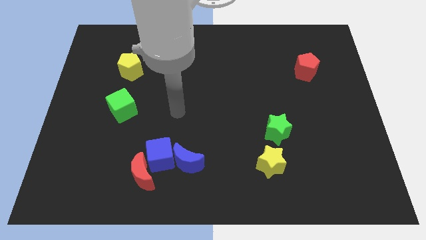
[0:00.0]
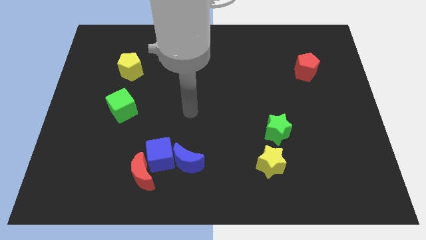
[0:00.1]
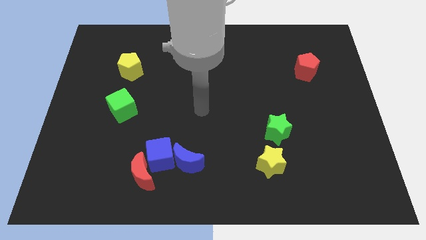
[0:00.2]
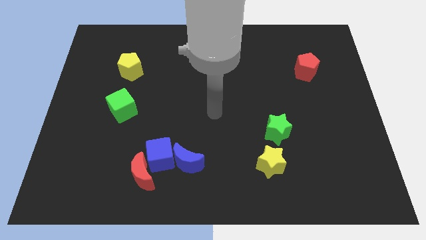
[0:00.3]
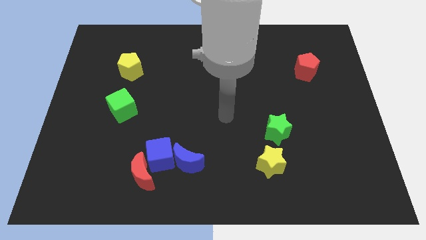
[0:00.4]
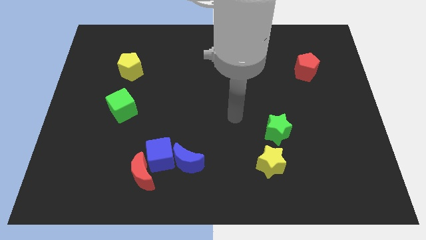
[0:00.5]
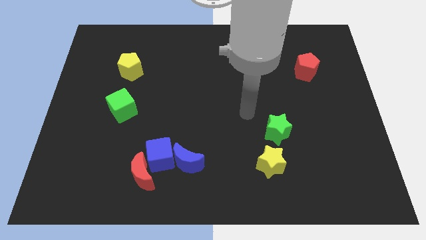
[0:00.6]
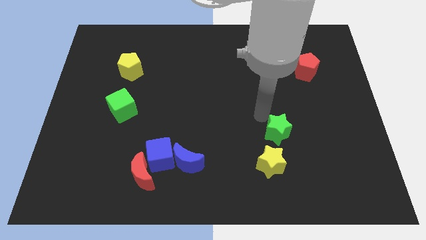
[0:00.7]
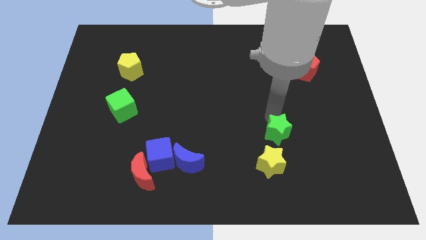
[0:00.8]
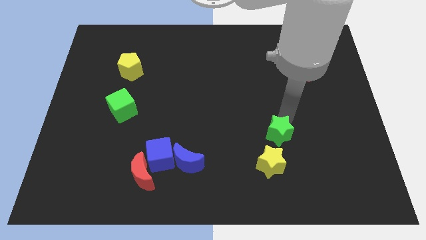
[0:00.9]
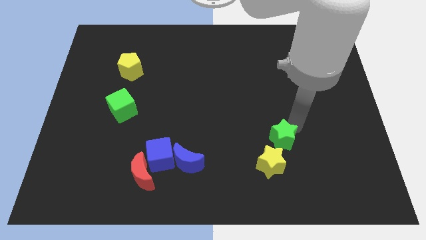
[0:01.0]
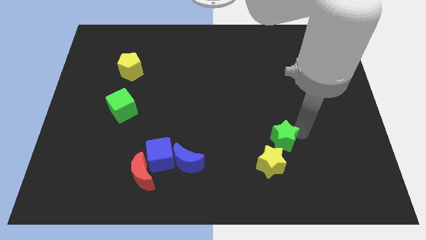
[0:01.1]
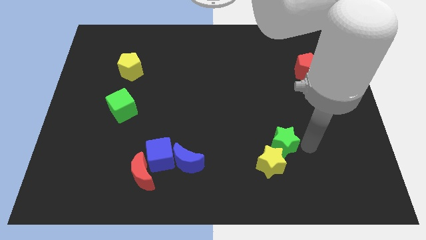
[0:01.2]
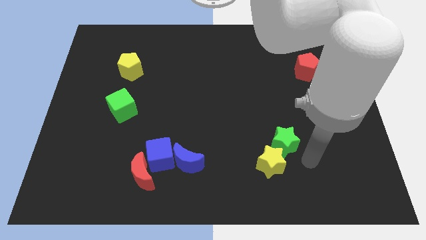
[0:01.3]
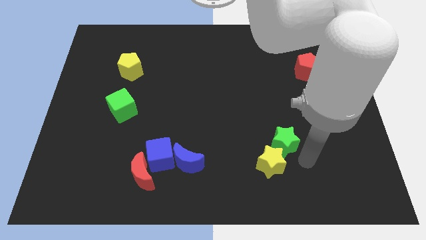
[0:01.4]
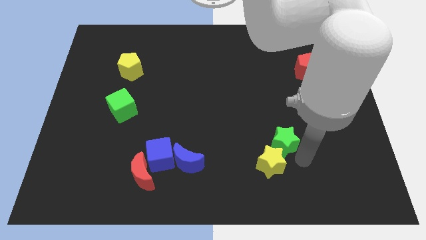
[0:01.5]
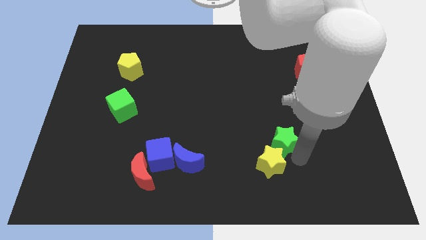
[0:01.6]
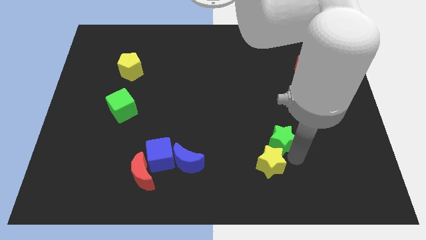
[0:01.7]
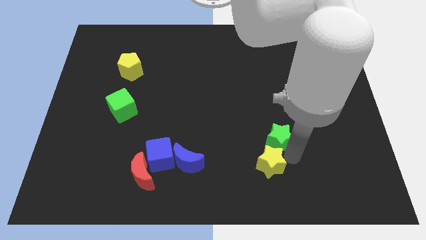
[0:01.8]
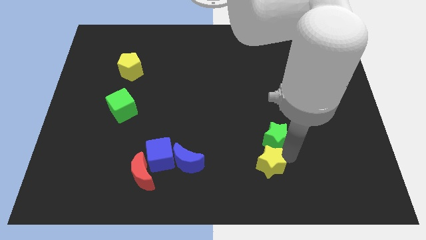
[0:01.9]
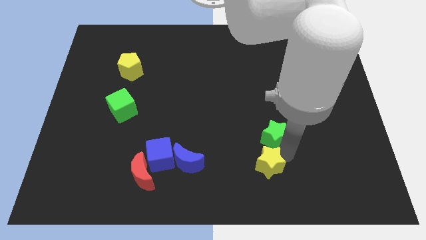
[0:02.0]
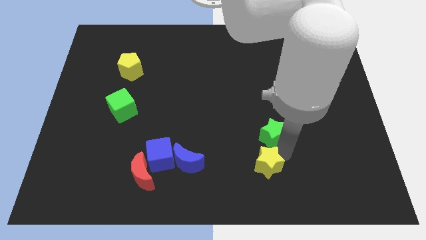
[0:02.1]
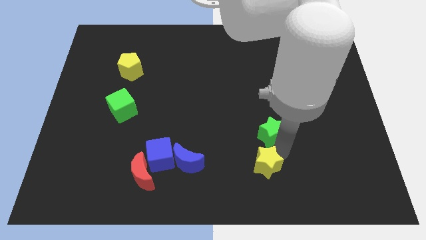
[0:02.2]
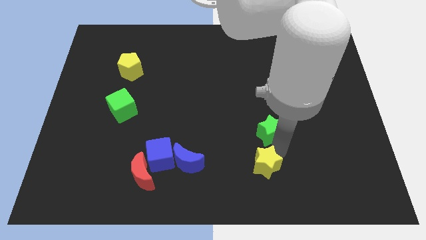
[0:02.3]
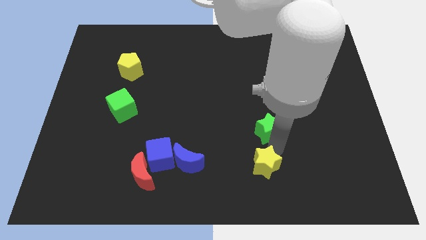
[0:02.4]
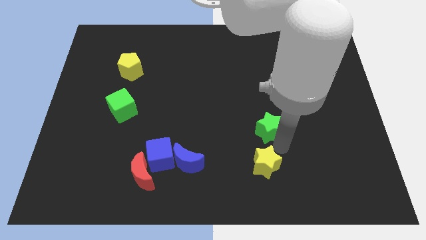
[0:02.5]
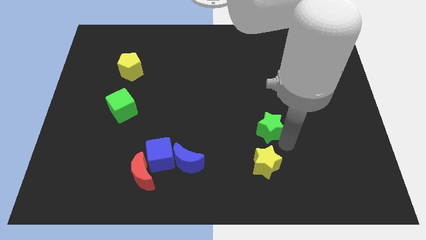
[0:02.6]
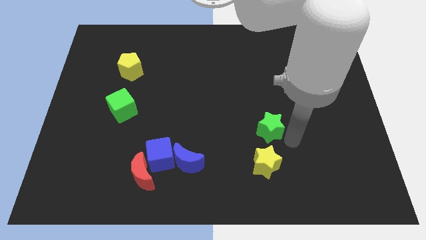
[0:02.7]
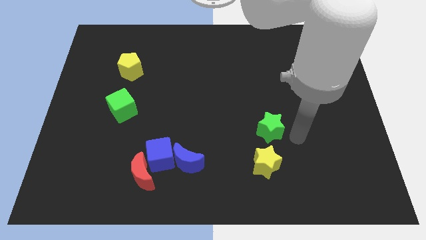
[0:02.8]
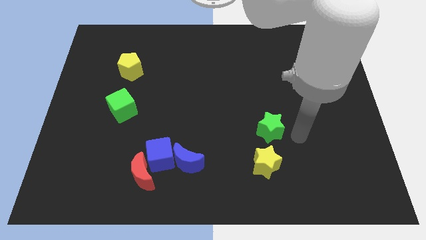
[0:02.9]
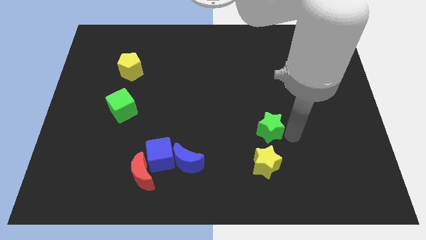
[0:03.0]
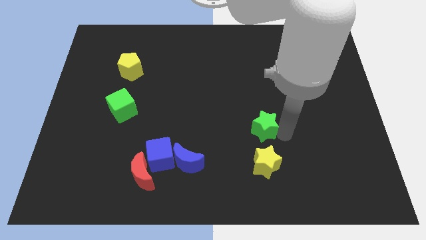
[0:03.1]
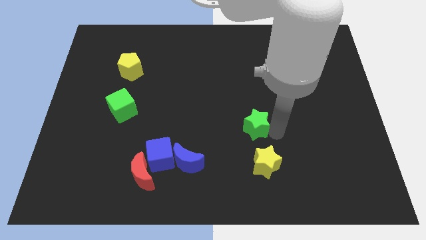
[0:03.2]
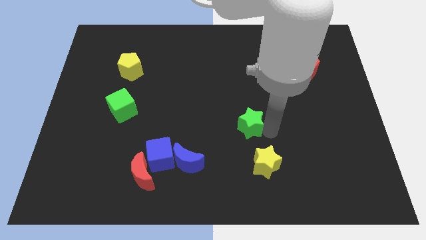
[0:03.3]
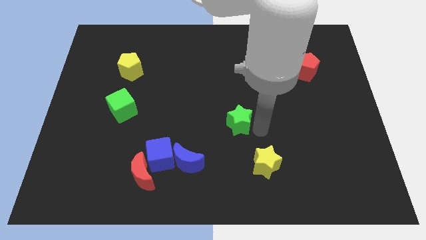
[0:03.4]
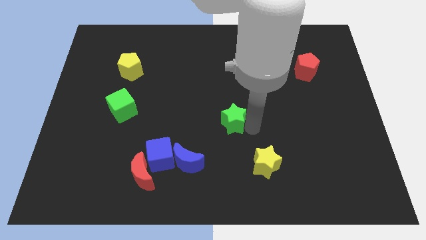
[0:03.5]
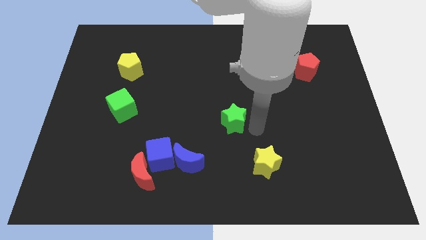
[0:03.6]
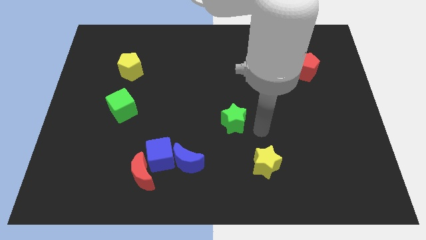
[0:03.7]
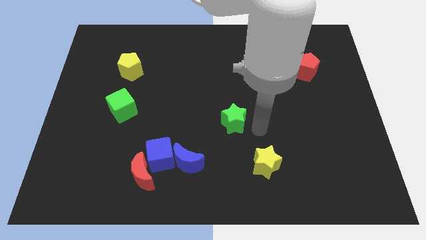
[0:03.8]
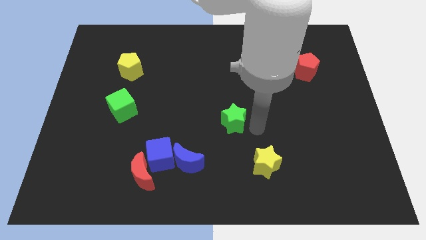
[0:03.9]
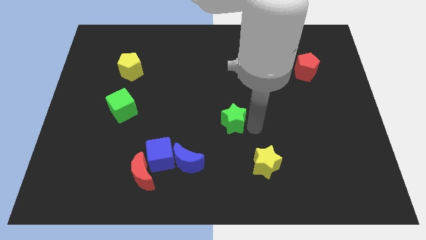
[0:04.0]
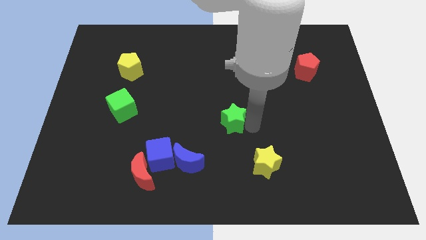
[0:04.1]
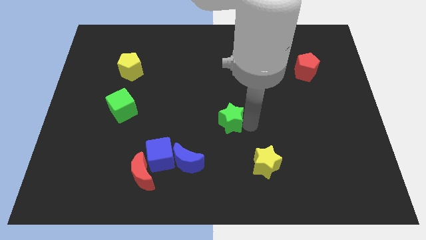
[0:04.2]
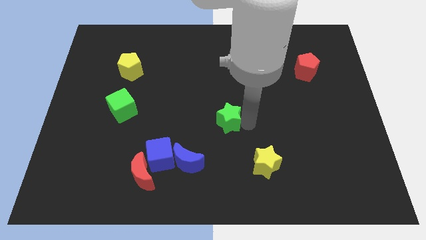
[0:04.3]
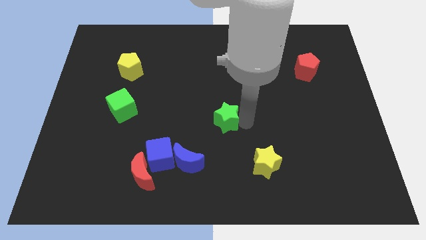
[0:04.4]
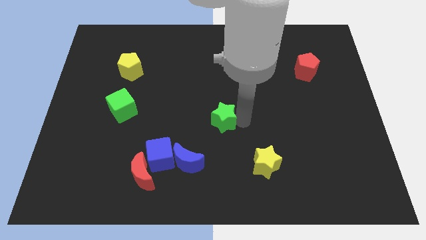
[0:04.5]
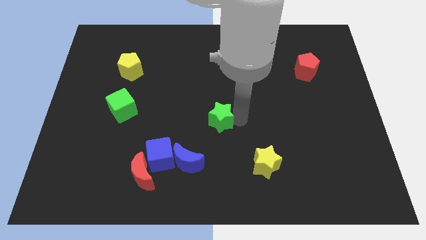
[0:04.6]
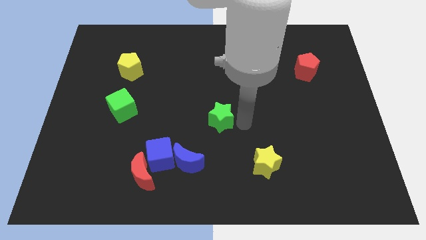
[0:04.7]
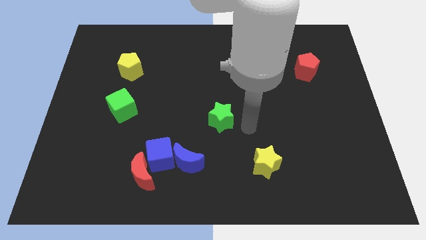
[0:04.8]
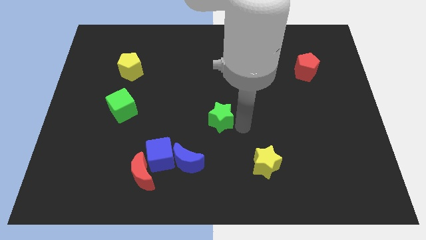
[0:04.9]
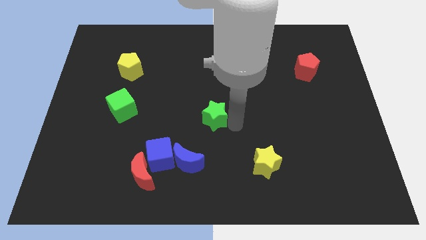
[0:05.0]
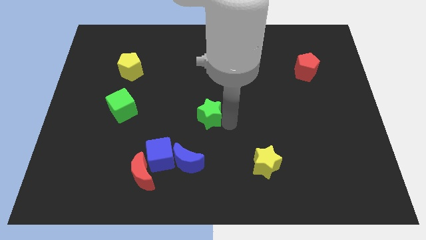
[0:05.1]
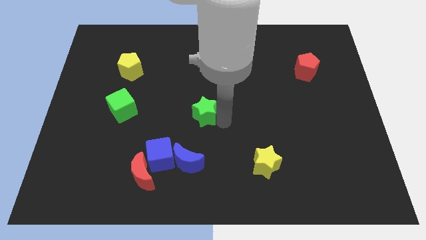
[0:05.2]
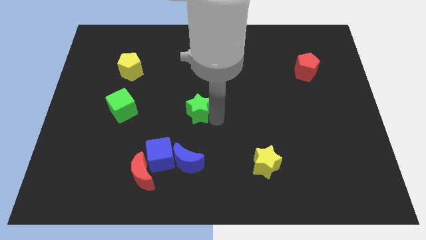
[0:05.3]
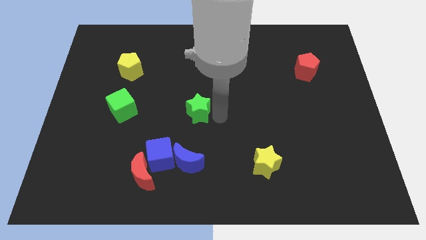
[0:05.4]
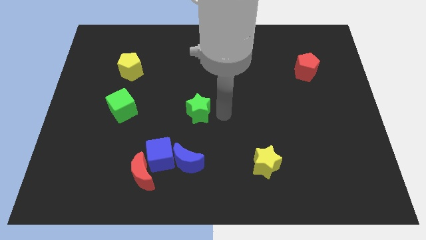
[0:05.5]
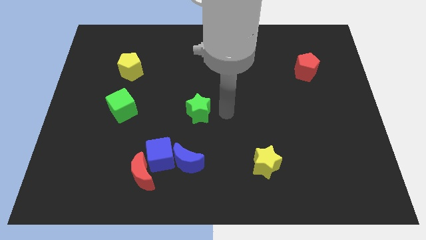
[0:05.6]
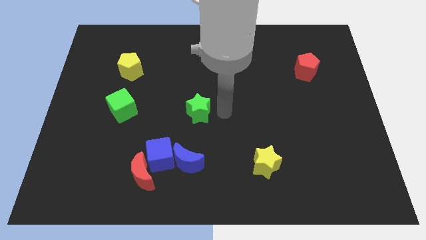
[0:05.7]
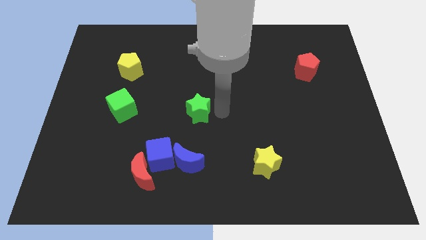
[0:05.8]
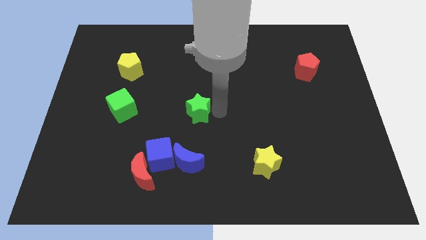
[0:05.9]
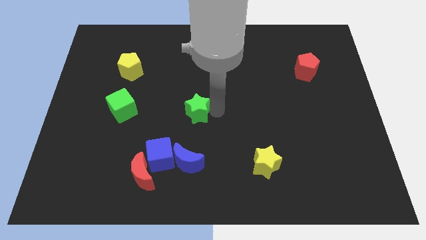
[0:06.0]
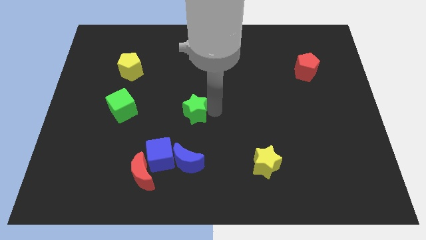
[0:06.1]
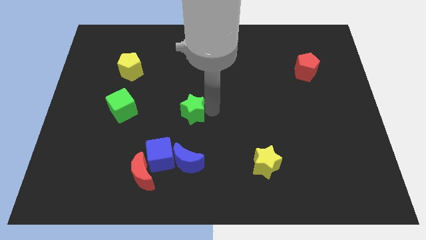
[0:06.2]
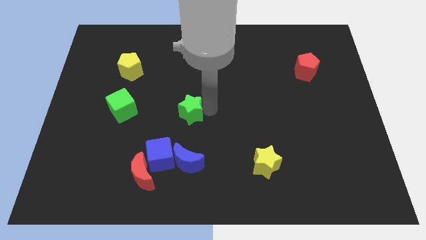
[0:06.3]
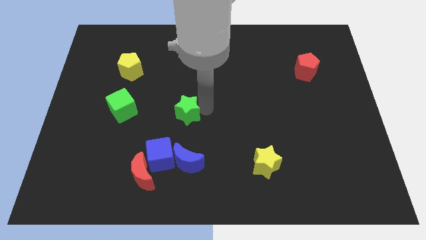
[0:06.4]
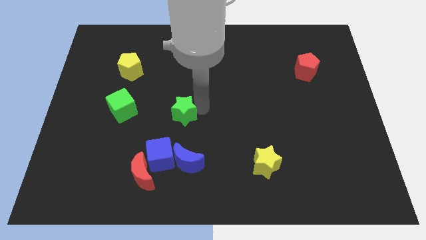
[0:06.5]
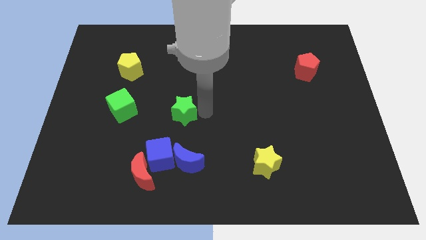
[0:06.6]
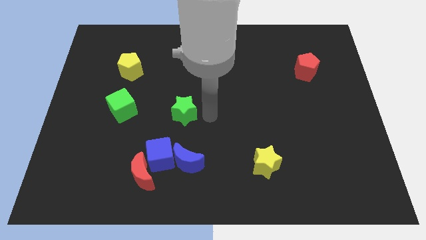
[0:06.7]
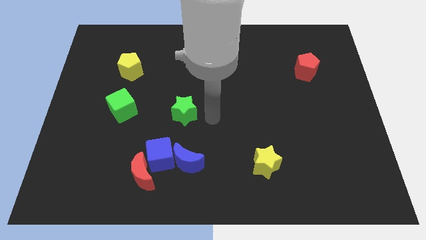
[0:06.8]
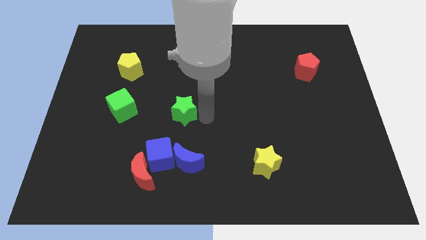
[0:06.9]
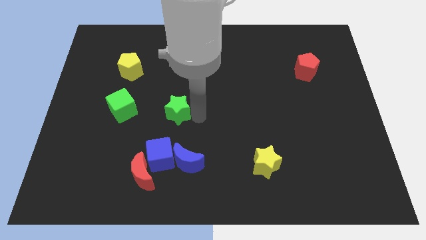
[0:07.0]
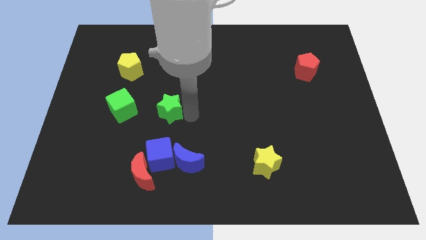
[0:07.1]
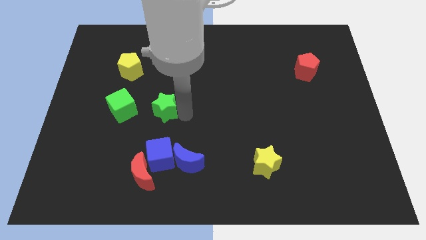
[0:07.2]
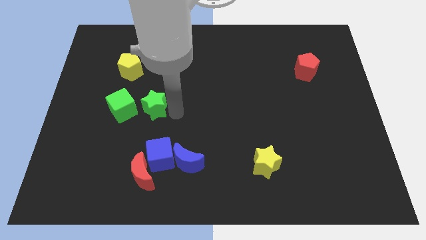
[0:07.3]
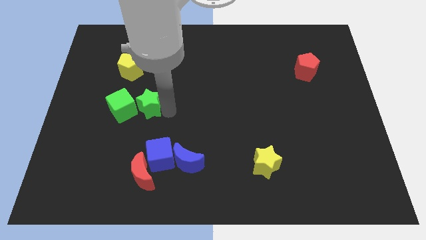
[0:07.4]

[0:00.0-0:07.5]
move the green star next to the green cube

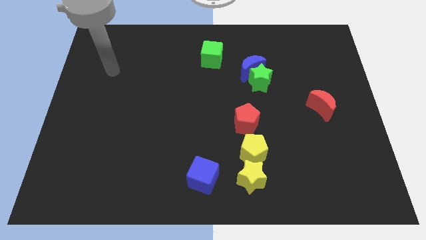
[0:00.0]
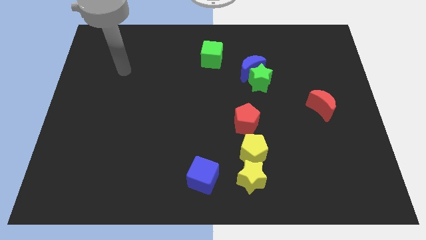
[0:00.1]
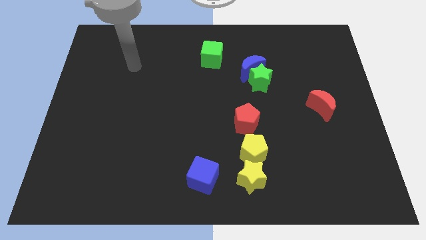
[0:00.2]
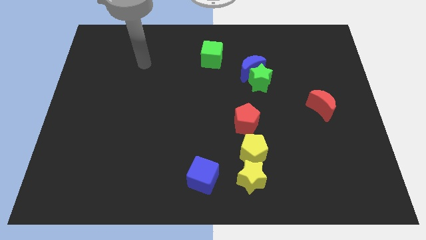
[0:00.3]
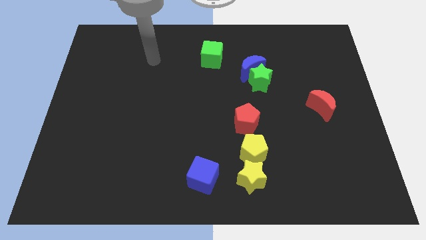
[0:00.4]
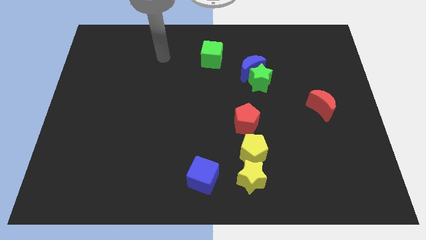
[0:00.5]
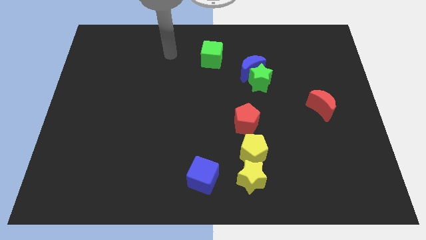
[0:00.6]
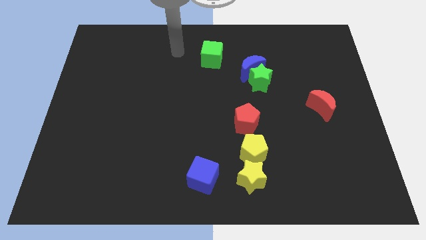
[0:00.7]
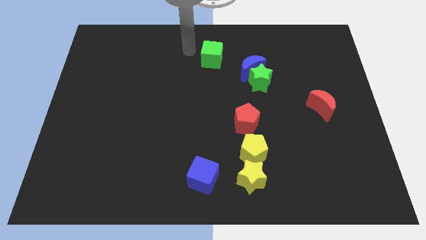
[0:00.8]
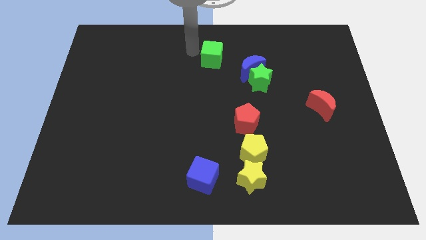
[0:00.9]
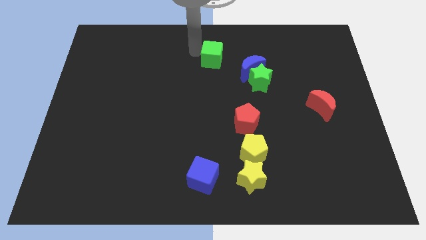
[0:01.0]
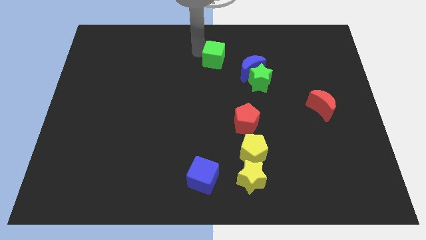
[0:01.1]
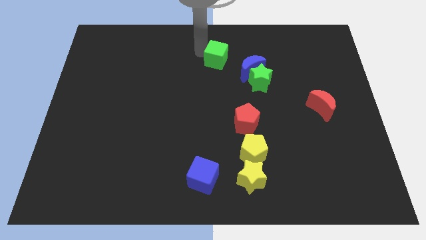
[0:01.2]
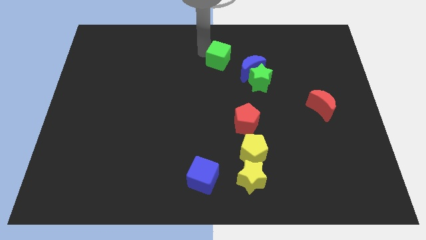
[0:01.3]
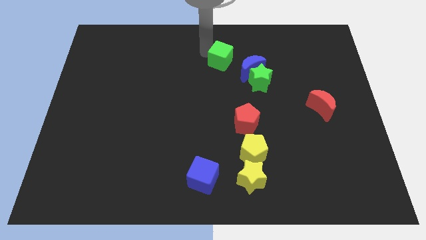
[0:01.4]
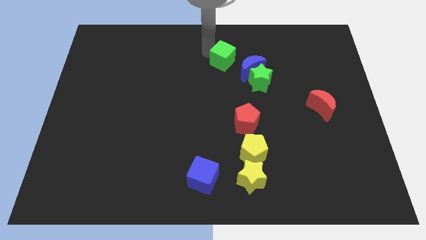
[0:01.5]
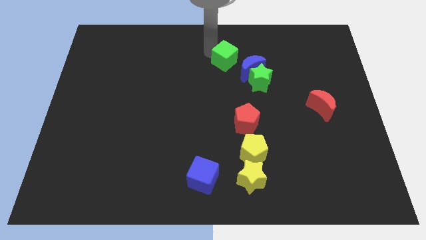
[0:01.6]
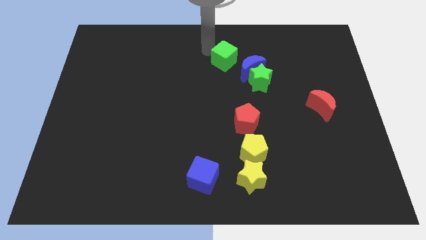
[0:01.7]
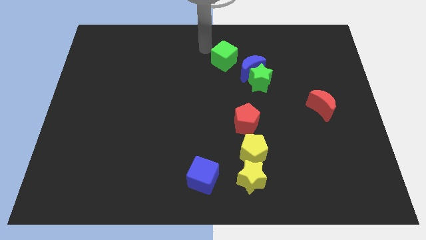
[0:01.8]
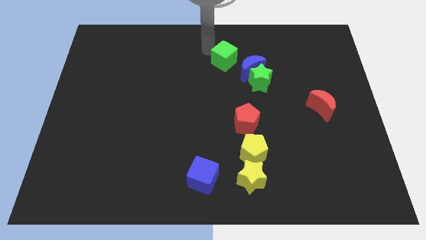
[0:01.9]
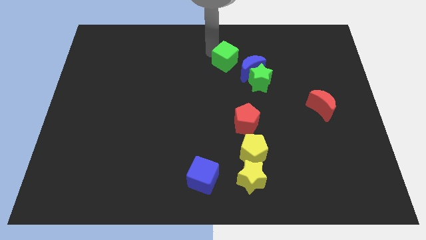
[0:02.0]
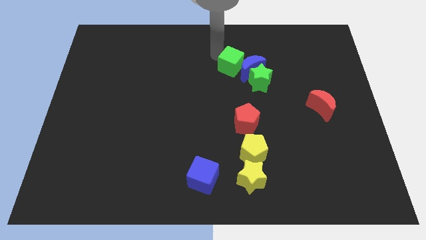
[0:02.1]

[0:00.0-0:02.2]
put the green cube next to the blue moon
